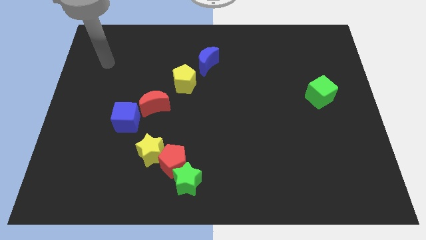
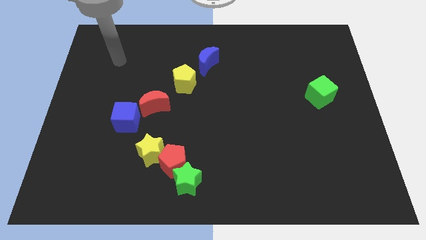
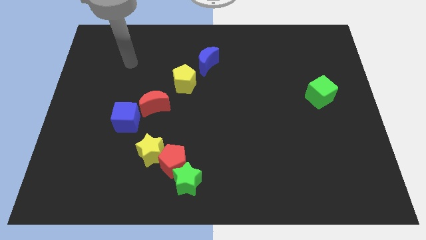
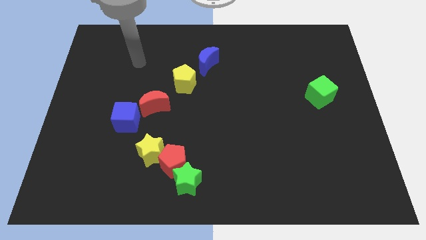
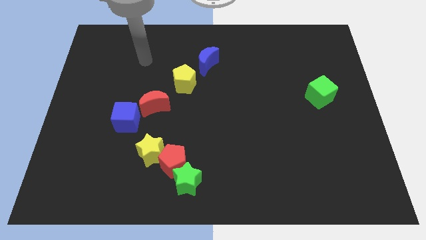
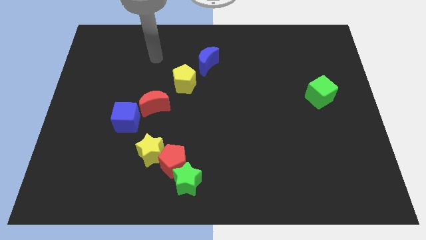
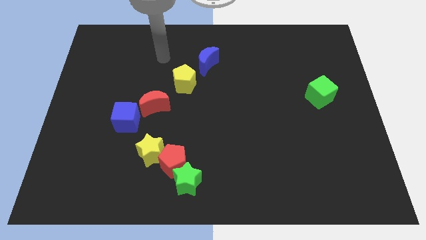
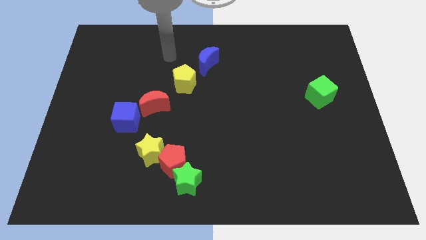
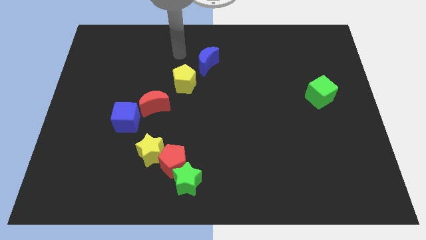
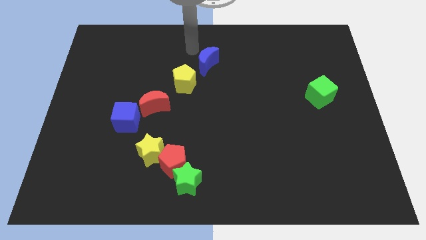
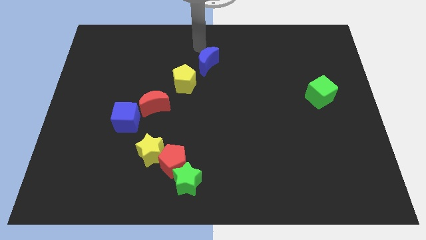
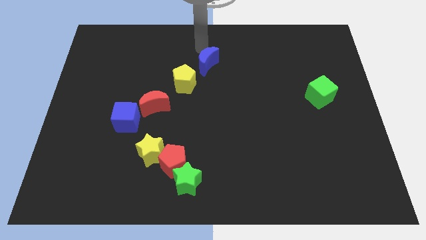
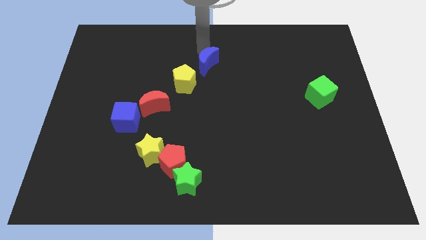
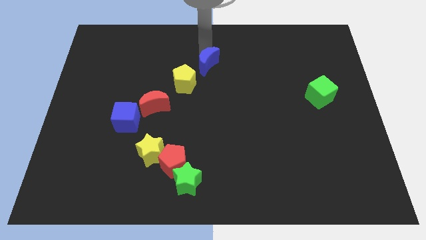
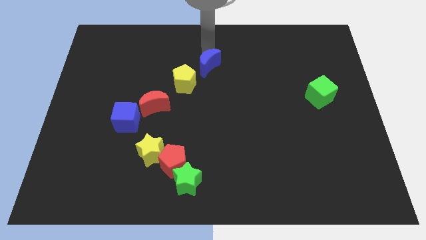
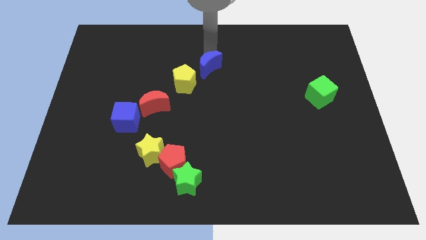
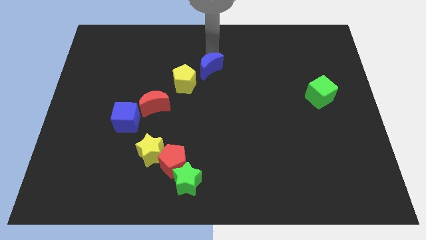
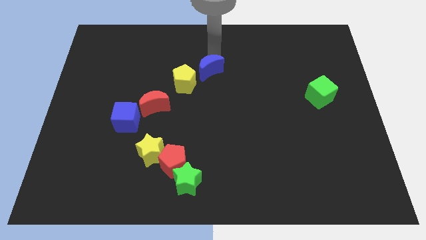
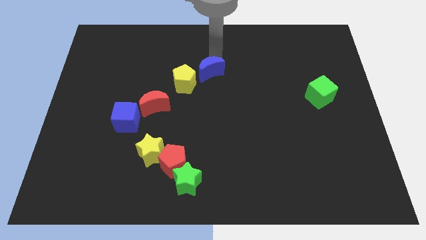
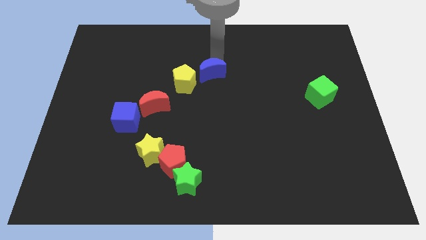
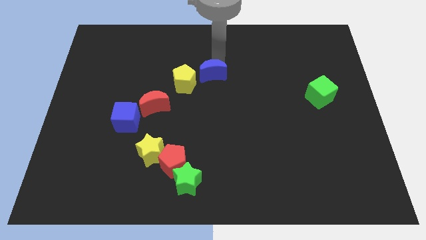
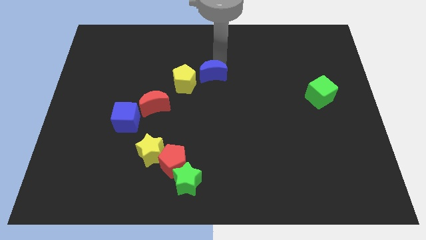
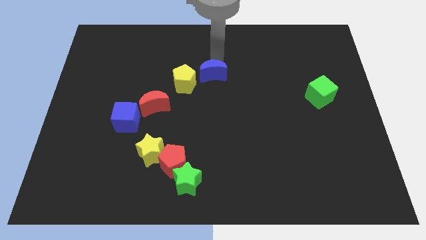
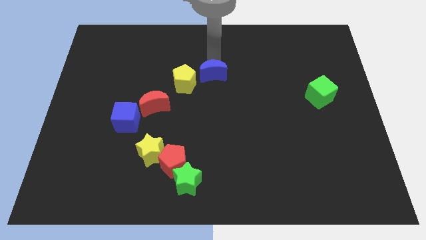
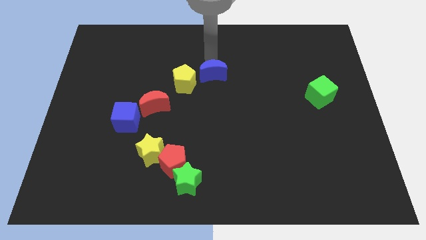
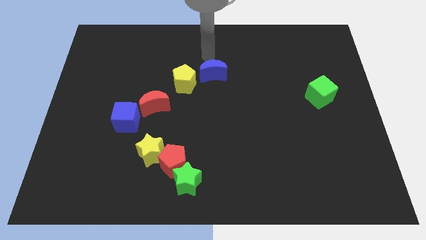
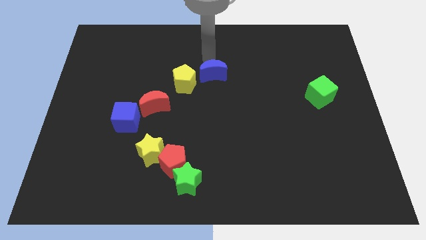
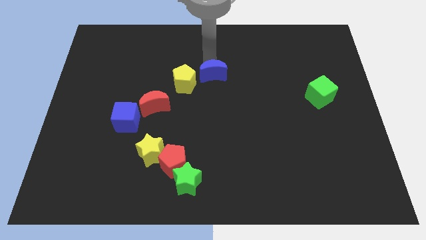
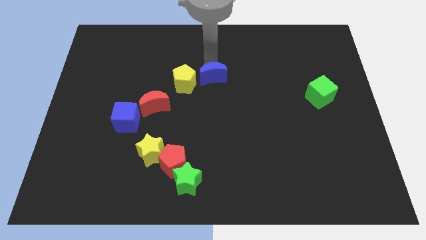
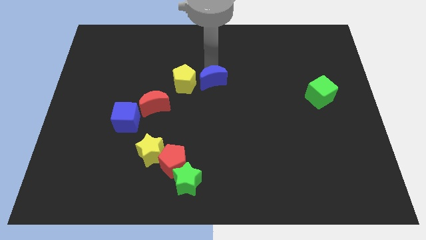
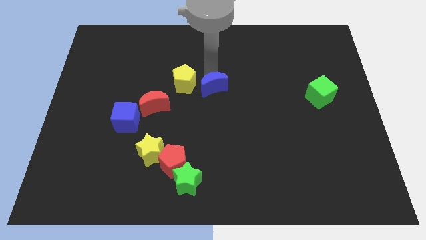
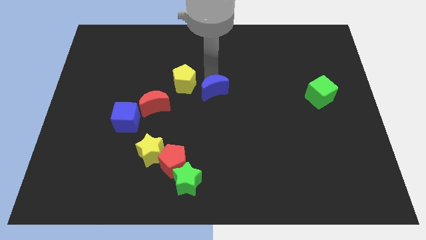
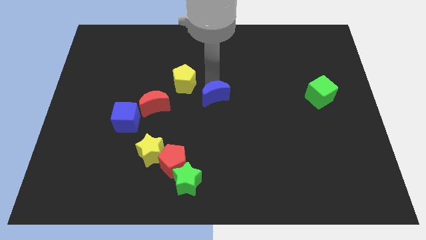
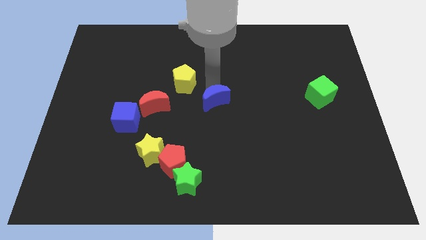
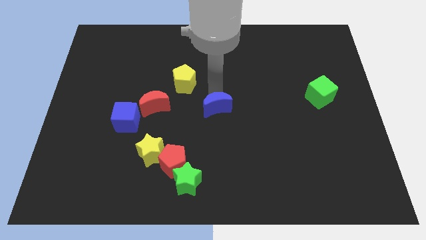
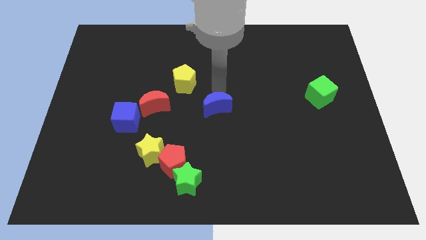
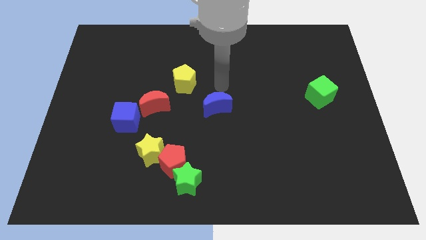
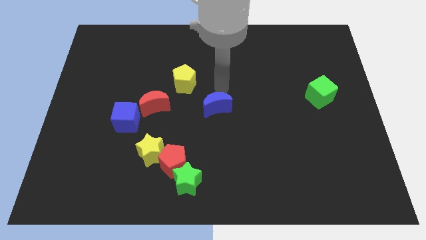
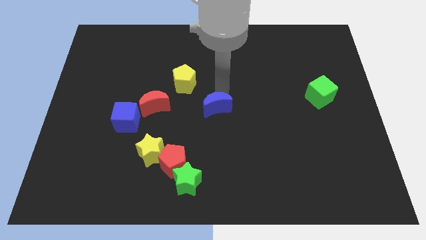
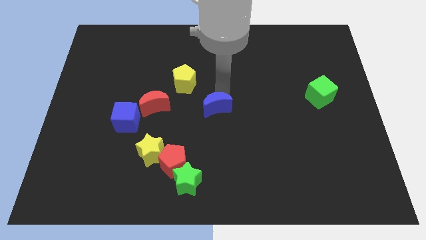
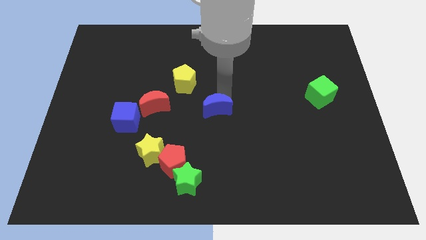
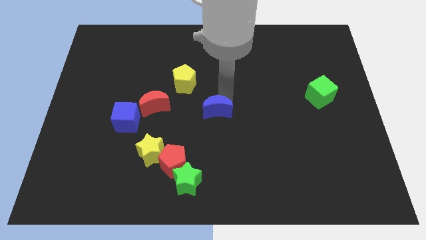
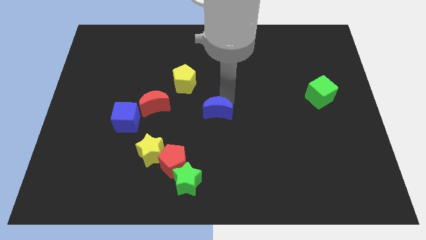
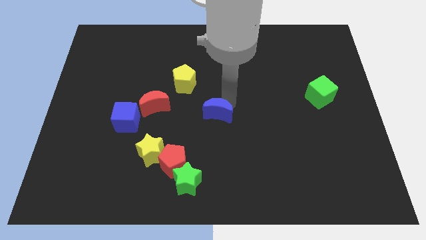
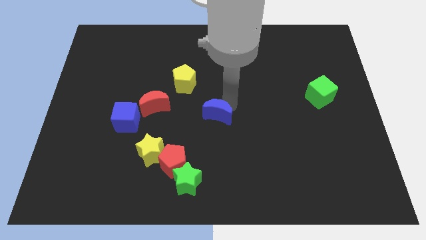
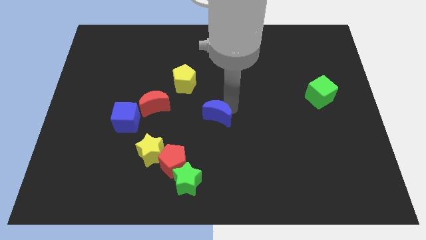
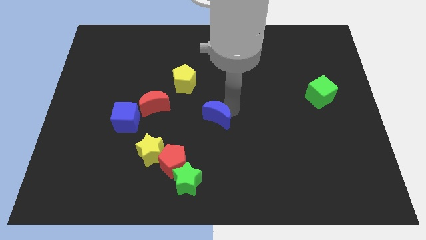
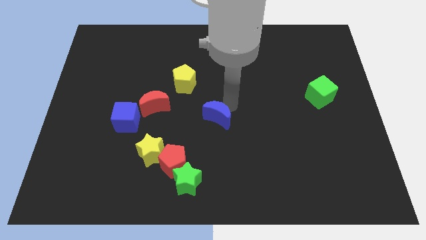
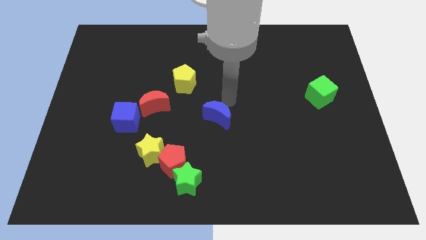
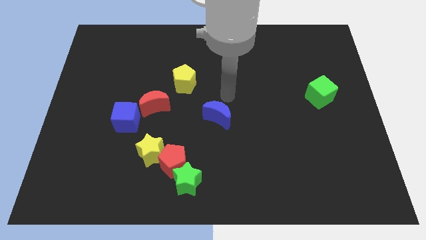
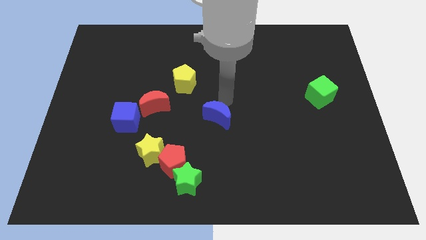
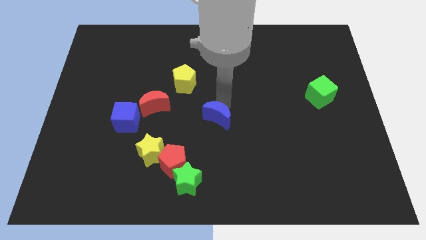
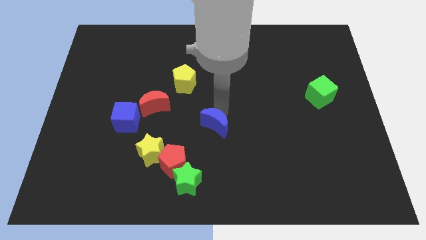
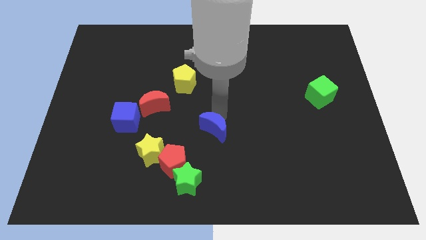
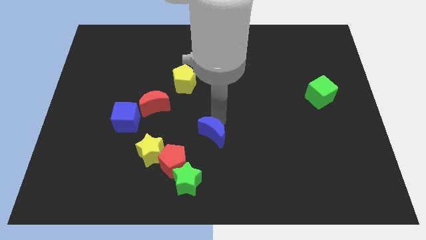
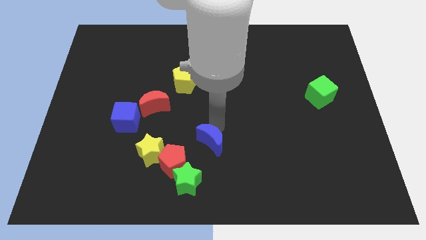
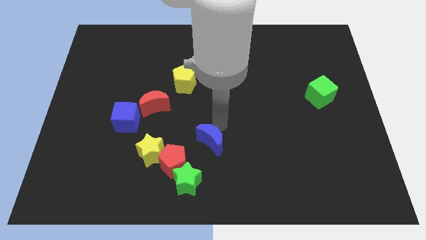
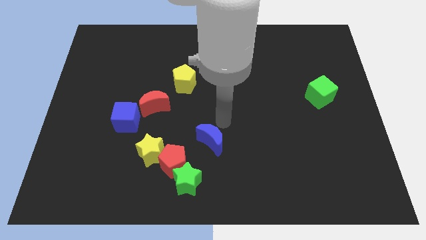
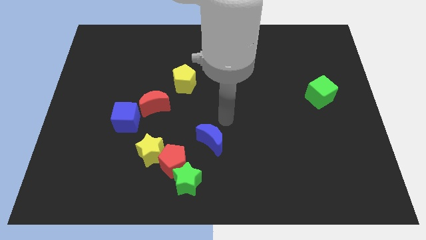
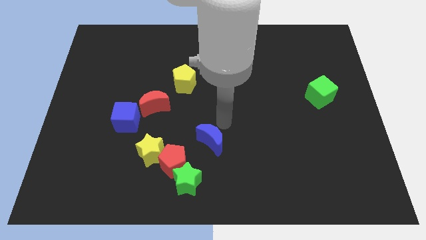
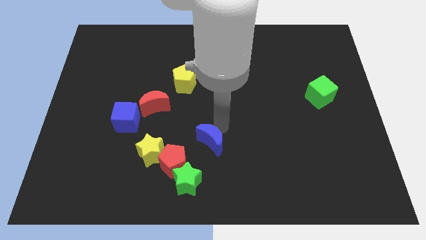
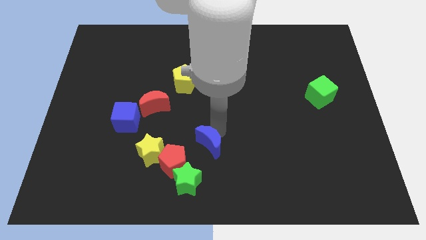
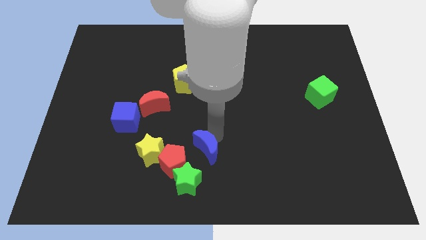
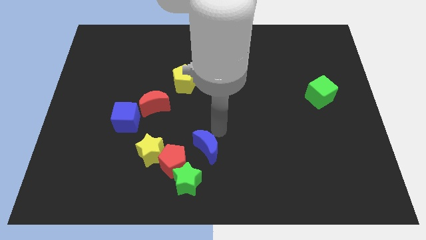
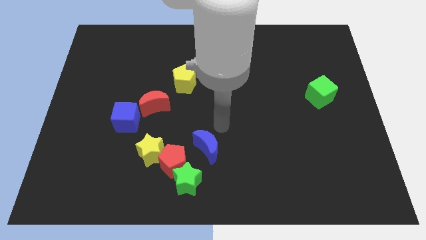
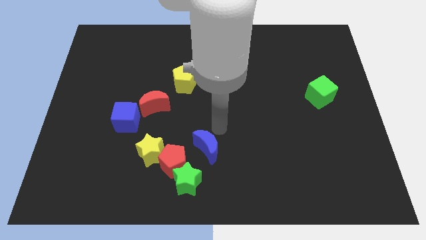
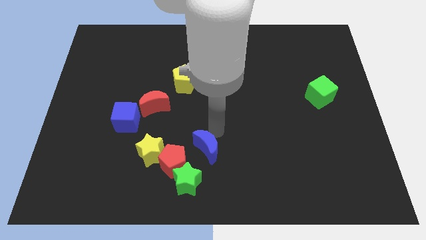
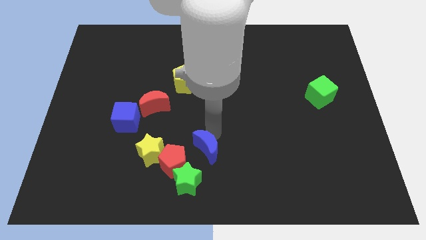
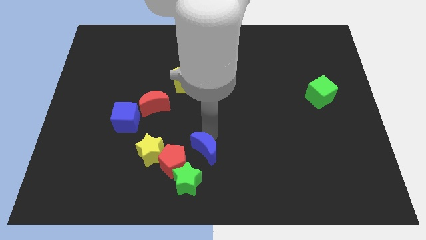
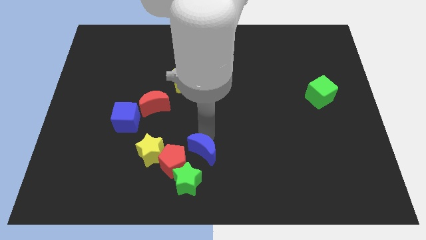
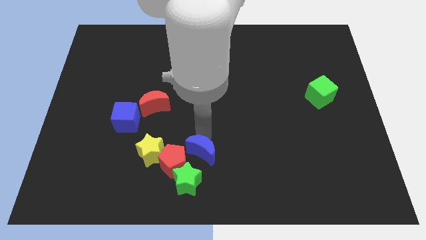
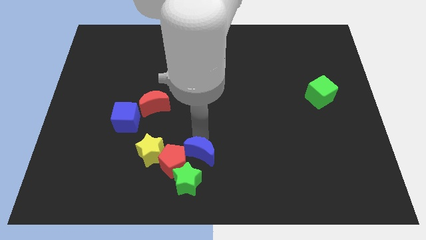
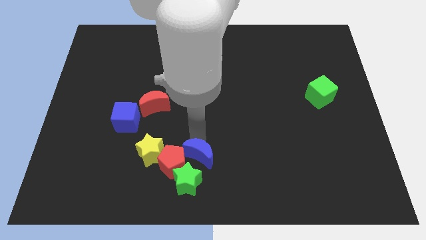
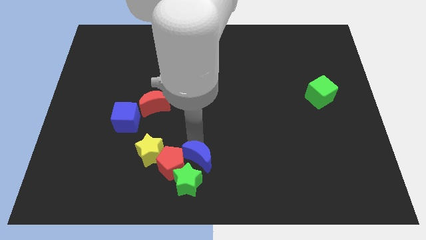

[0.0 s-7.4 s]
slide the blue moon next to the green star

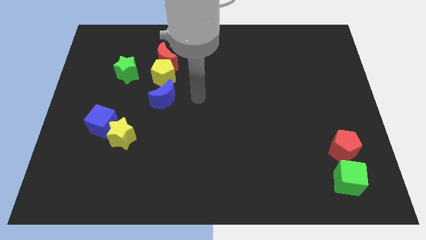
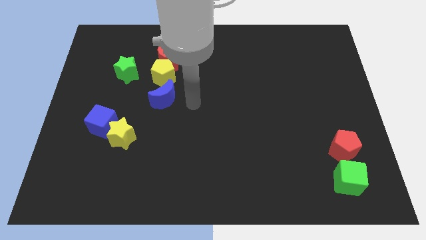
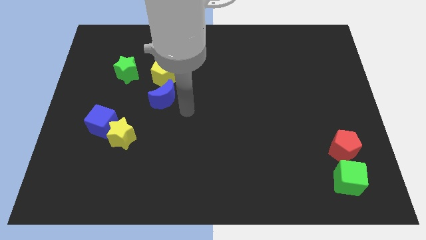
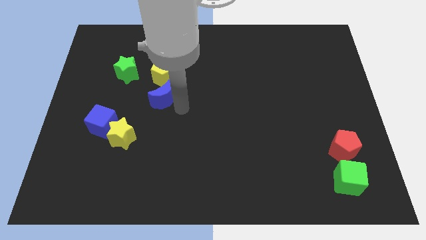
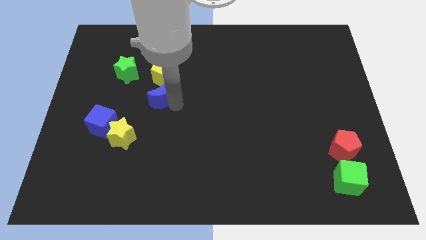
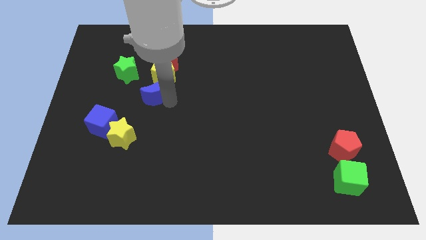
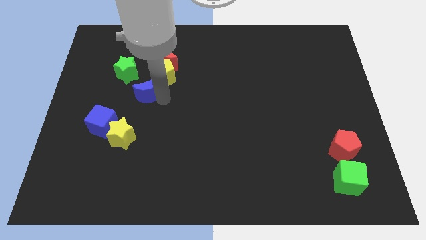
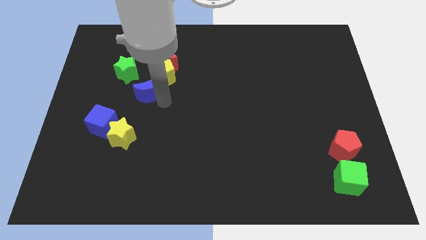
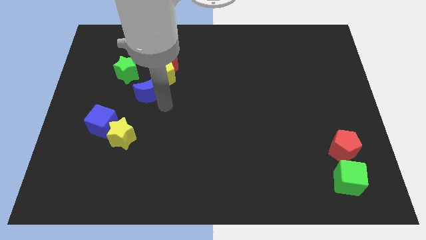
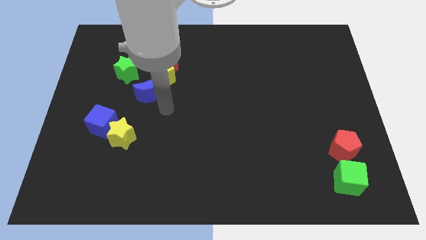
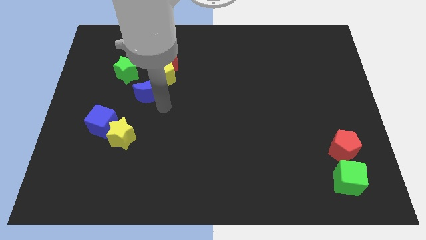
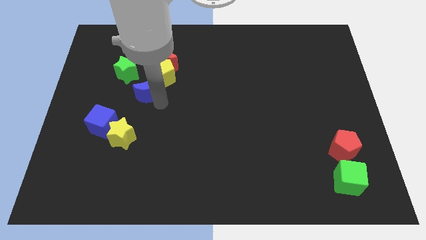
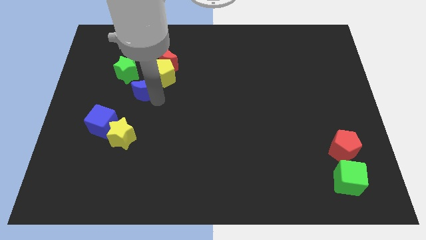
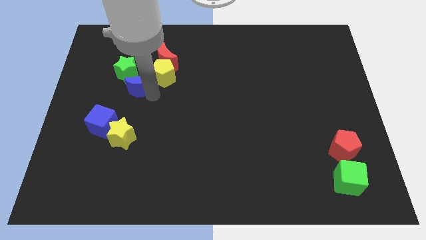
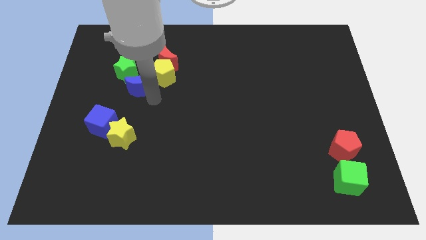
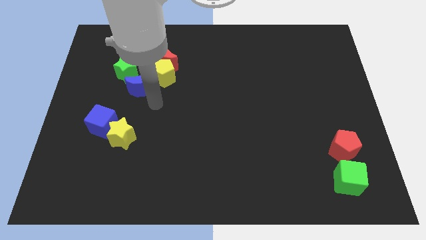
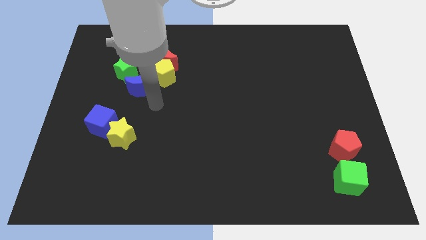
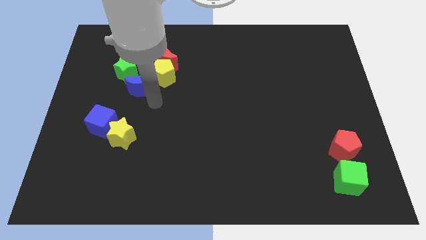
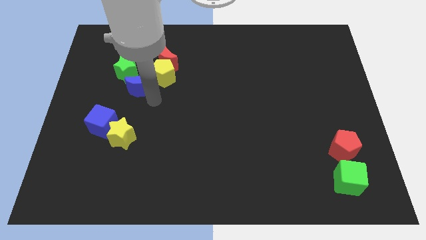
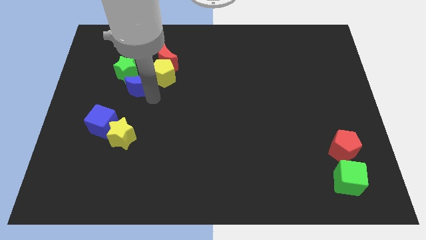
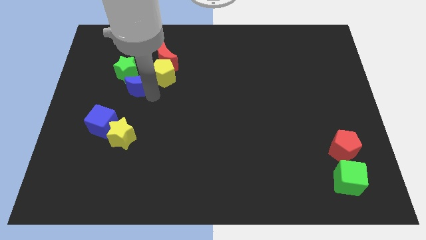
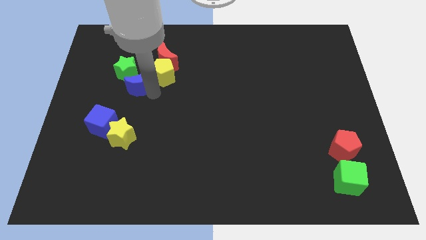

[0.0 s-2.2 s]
push the blue moon next to the green star
